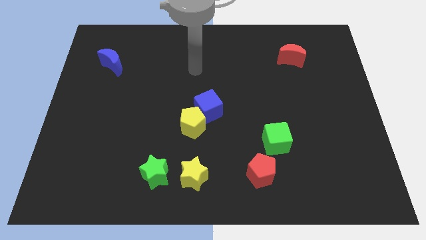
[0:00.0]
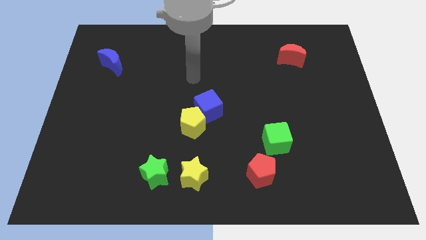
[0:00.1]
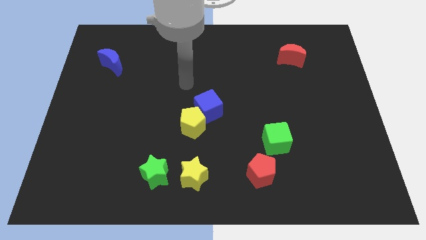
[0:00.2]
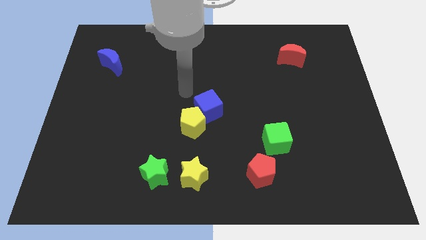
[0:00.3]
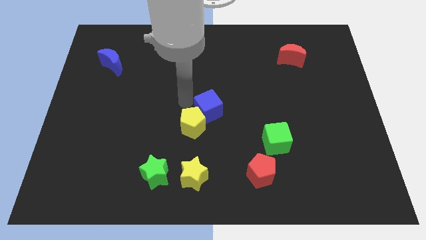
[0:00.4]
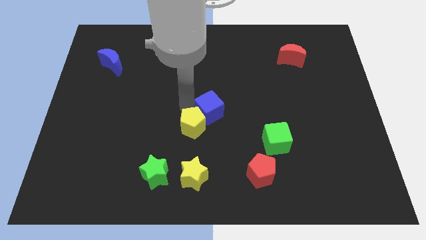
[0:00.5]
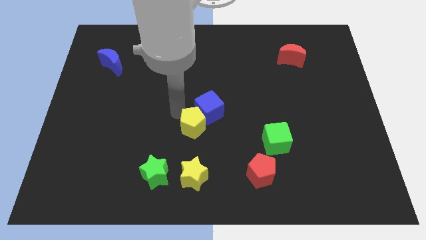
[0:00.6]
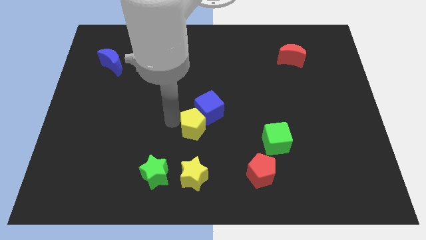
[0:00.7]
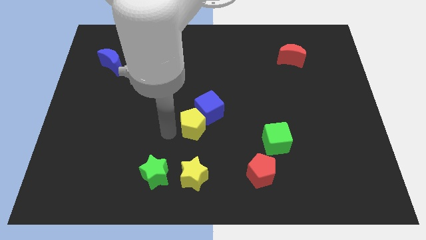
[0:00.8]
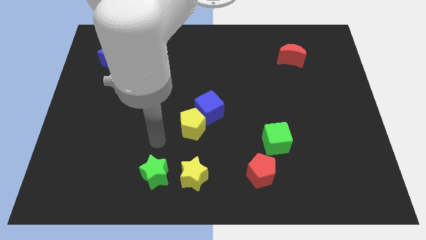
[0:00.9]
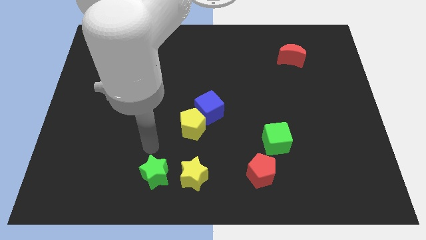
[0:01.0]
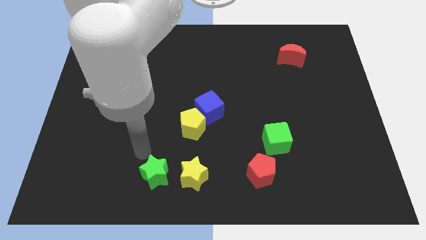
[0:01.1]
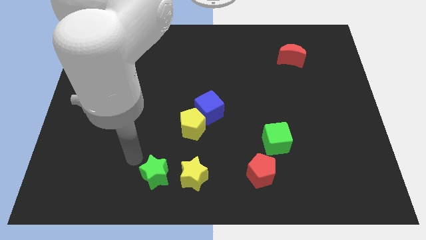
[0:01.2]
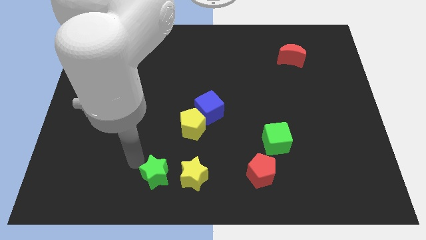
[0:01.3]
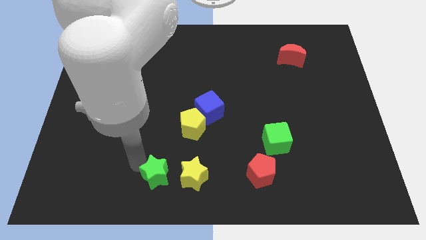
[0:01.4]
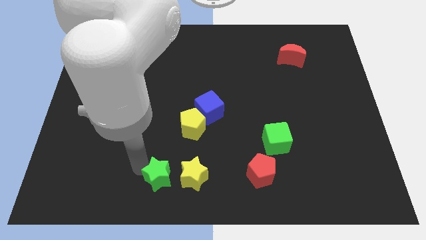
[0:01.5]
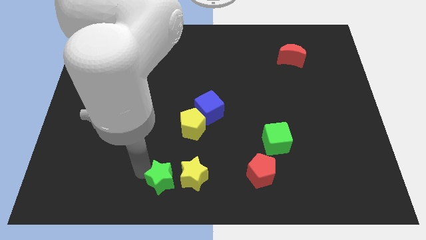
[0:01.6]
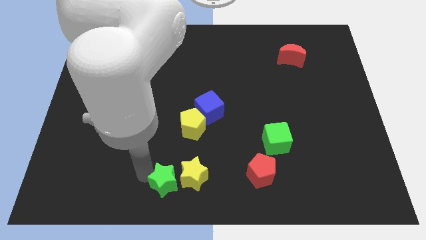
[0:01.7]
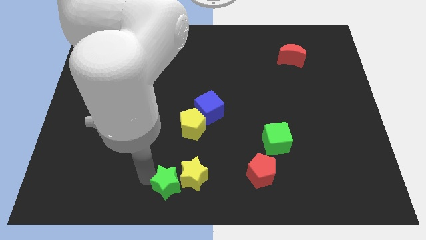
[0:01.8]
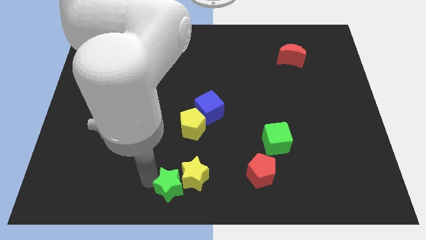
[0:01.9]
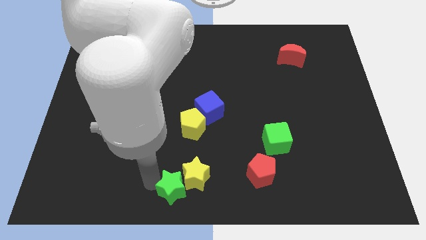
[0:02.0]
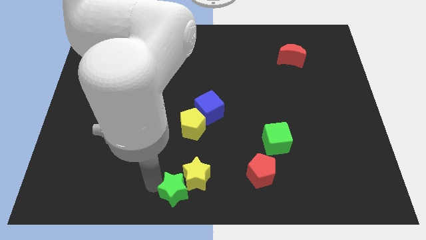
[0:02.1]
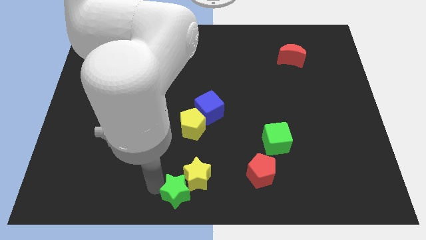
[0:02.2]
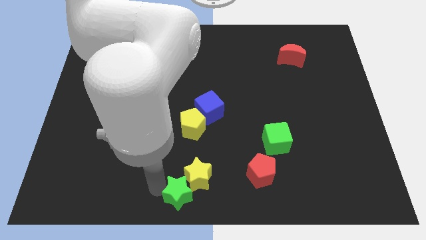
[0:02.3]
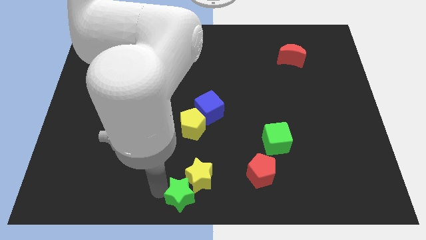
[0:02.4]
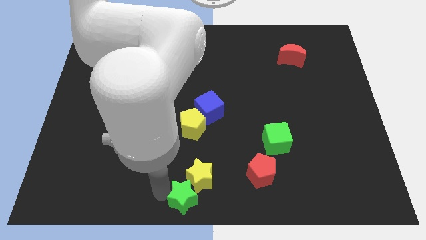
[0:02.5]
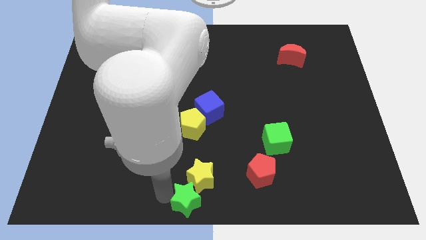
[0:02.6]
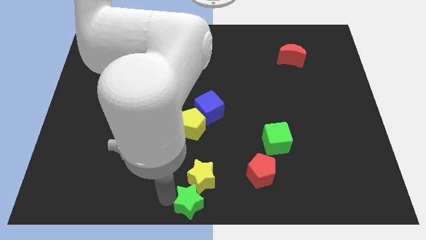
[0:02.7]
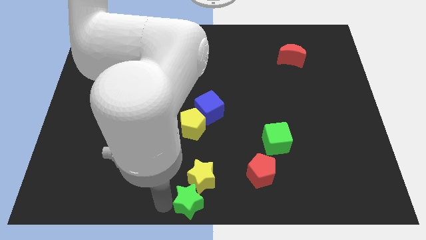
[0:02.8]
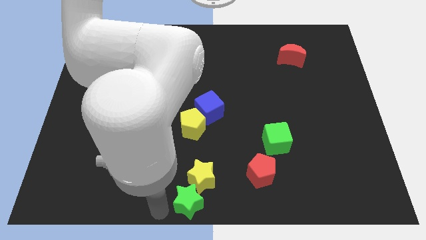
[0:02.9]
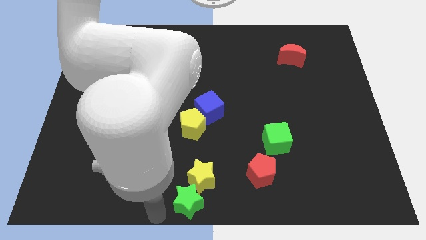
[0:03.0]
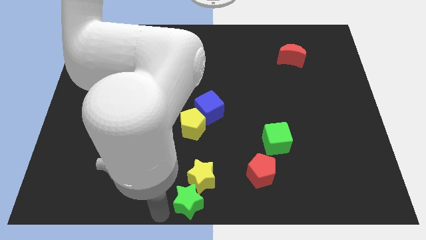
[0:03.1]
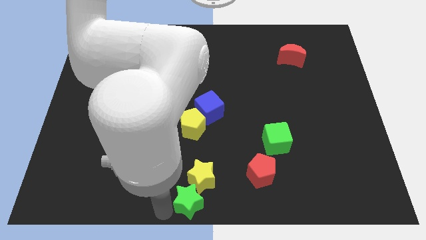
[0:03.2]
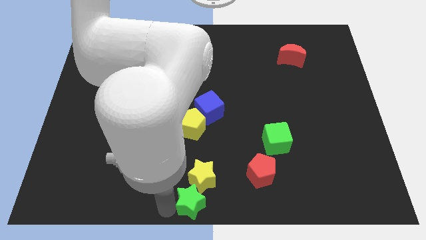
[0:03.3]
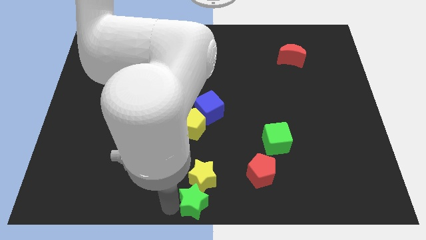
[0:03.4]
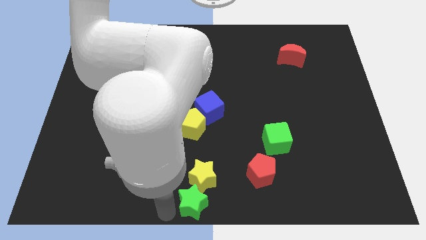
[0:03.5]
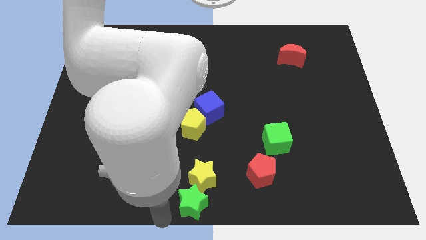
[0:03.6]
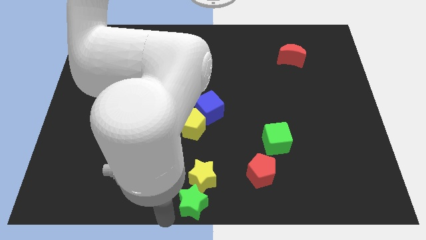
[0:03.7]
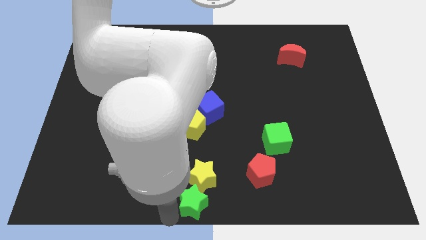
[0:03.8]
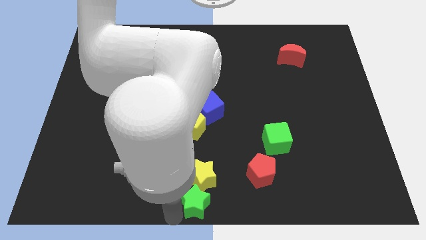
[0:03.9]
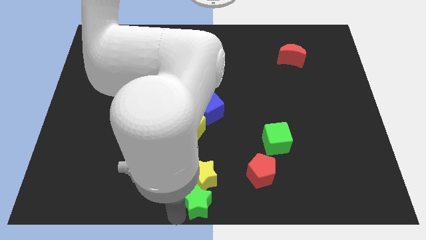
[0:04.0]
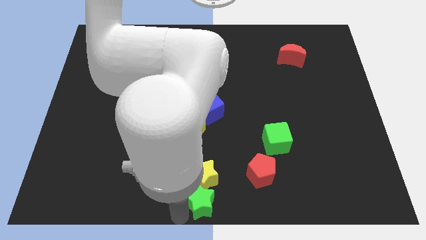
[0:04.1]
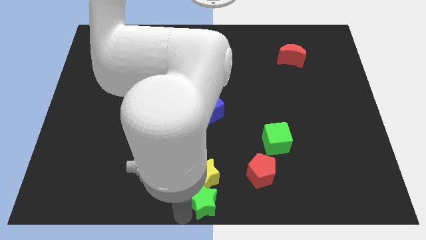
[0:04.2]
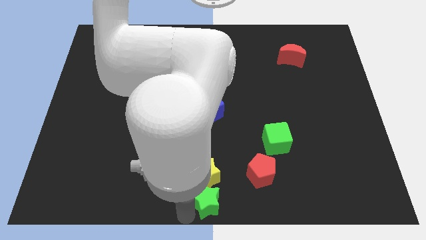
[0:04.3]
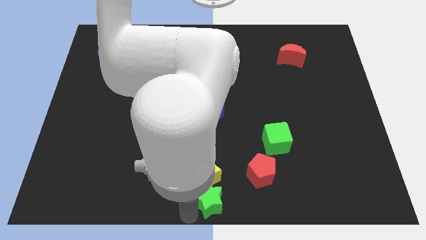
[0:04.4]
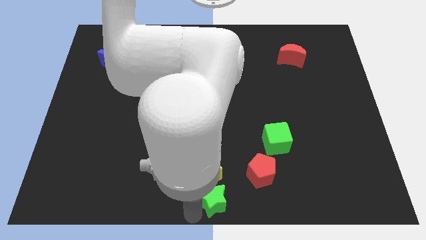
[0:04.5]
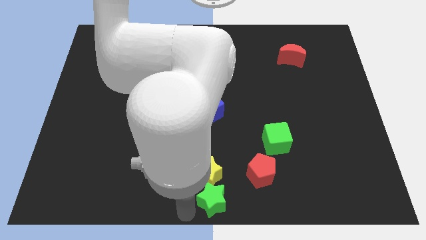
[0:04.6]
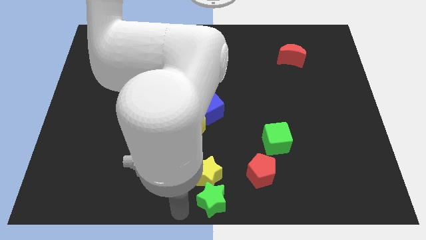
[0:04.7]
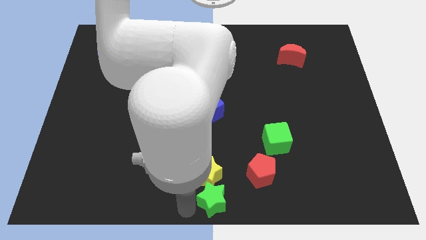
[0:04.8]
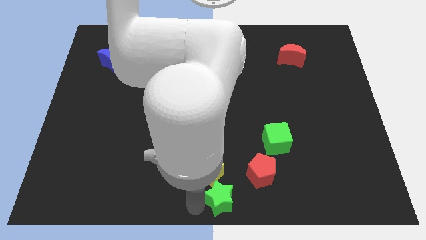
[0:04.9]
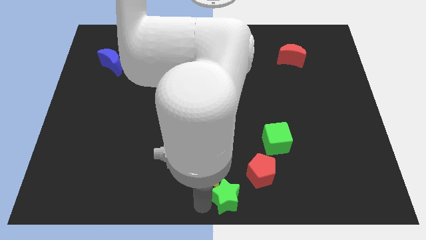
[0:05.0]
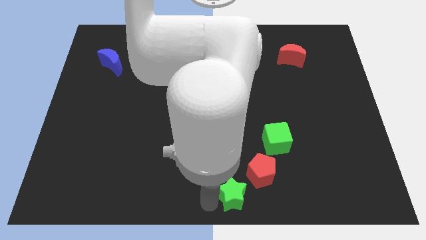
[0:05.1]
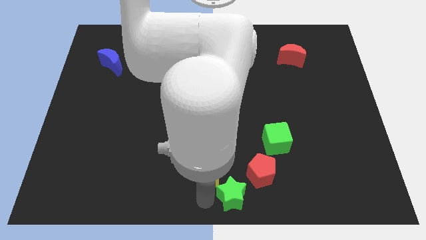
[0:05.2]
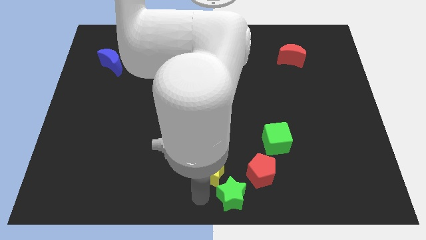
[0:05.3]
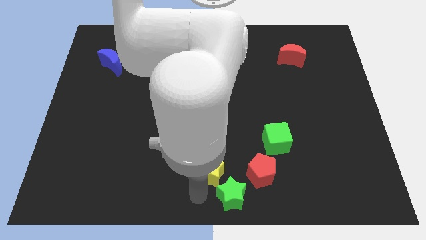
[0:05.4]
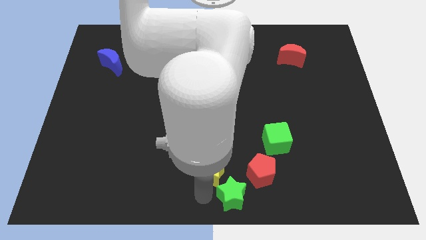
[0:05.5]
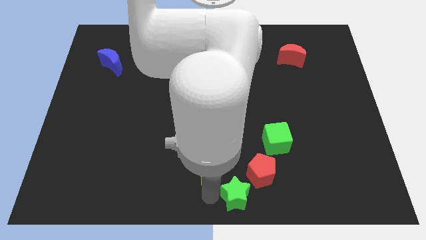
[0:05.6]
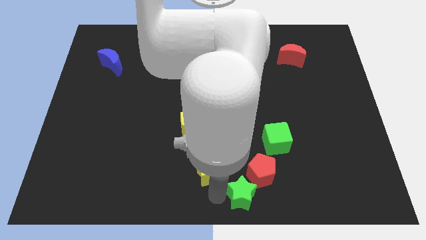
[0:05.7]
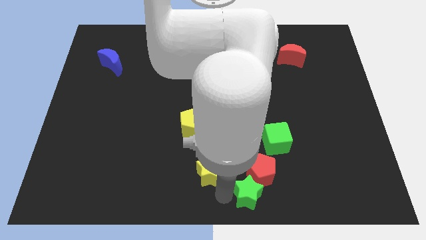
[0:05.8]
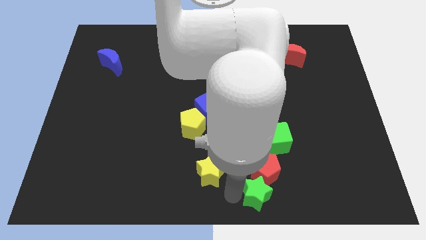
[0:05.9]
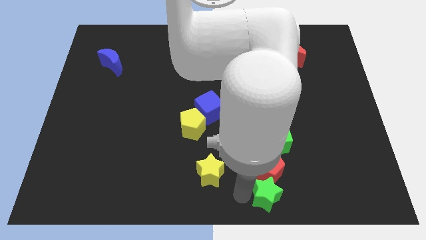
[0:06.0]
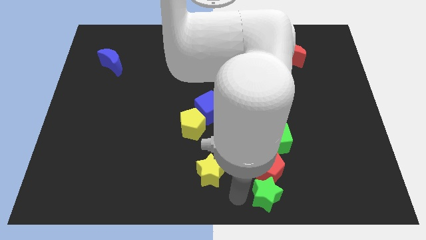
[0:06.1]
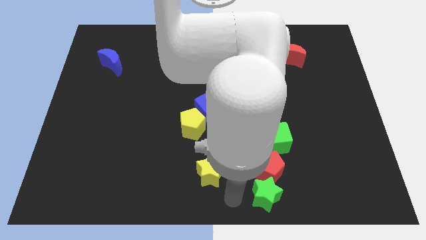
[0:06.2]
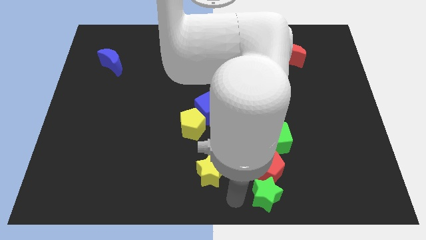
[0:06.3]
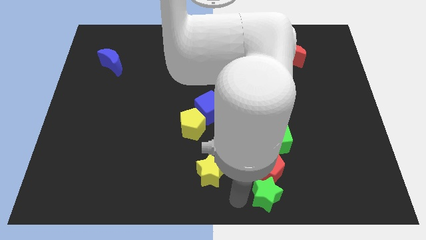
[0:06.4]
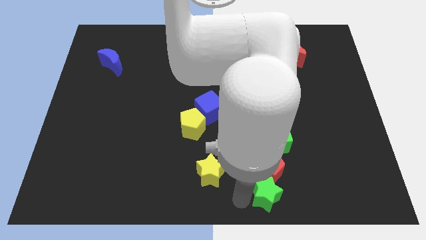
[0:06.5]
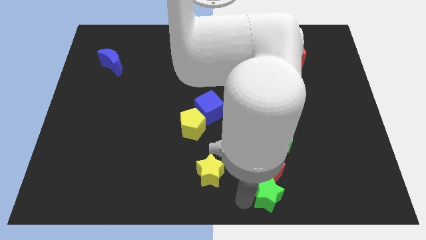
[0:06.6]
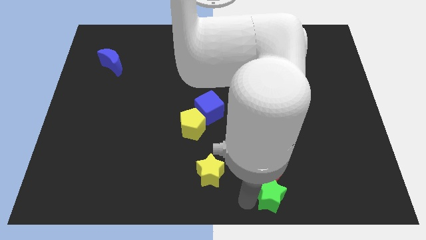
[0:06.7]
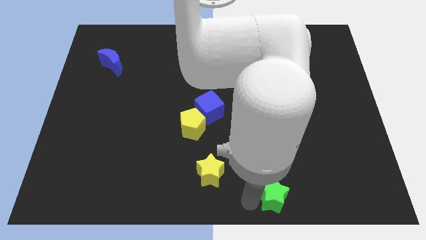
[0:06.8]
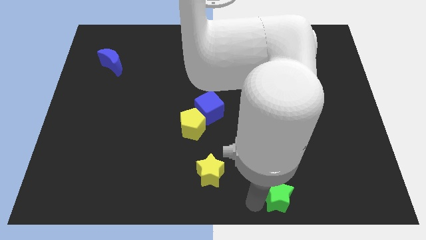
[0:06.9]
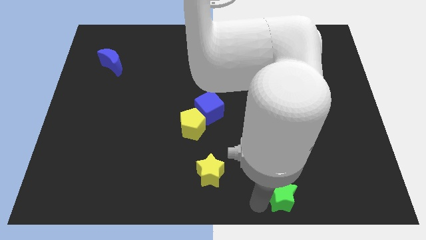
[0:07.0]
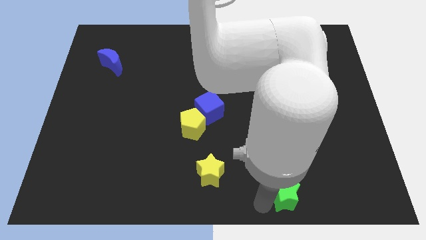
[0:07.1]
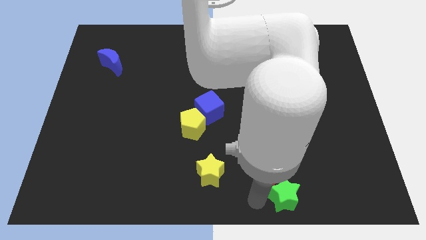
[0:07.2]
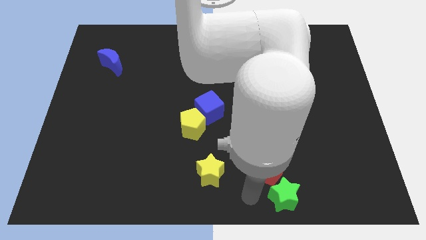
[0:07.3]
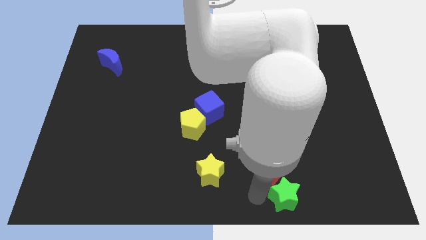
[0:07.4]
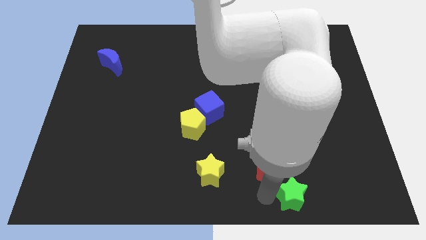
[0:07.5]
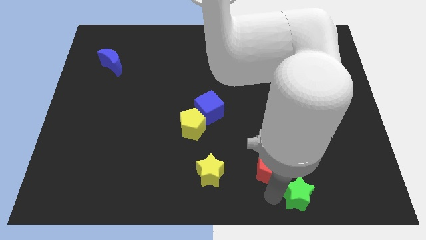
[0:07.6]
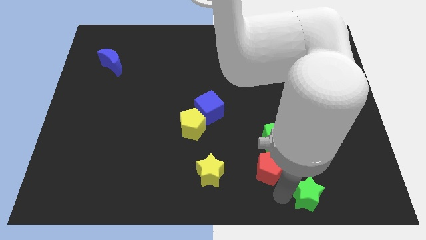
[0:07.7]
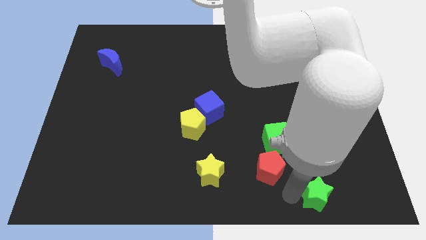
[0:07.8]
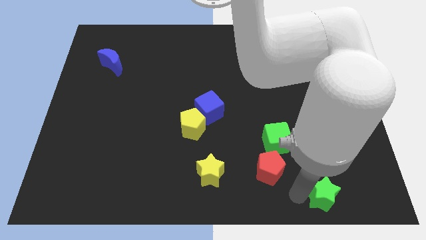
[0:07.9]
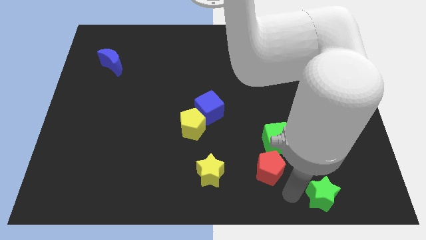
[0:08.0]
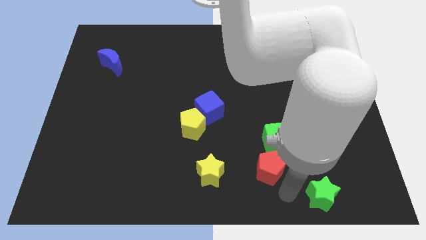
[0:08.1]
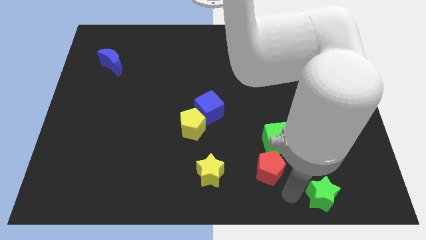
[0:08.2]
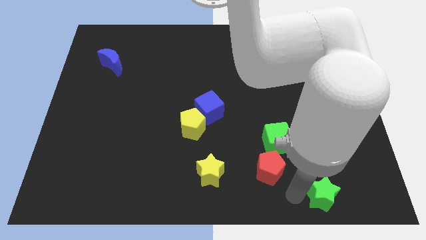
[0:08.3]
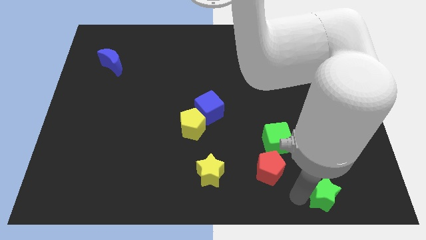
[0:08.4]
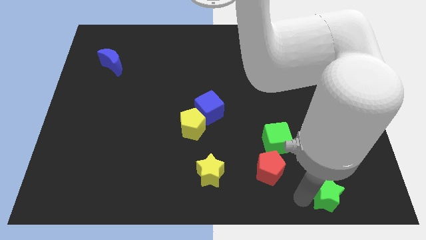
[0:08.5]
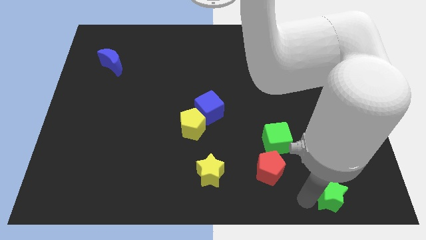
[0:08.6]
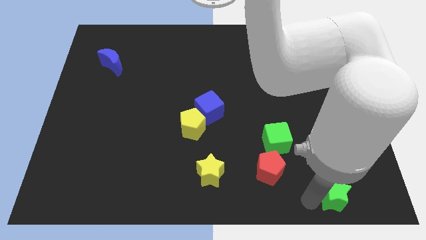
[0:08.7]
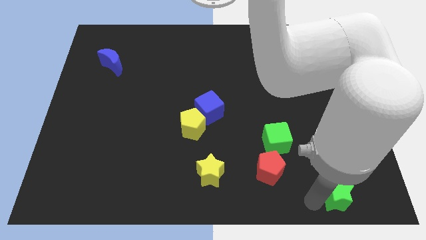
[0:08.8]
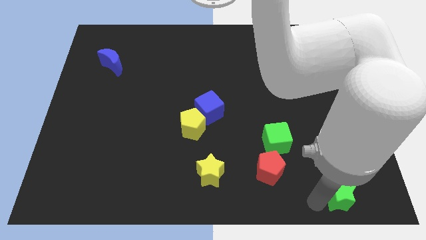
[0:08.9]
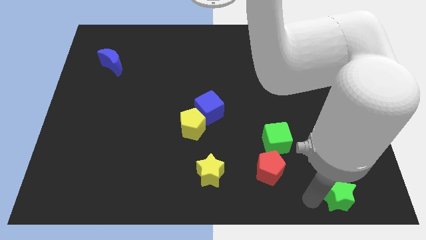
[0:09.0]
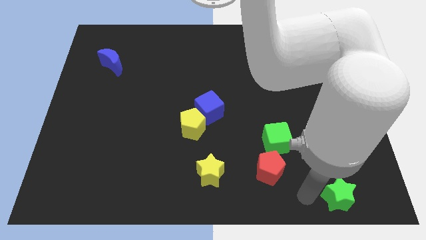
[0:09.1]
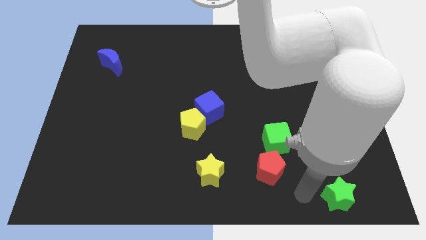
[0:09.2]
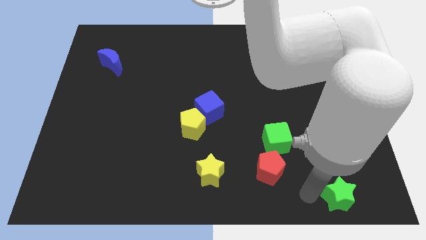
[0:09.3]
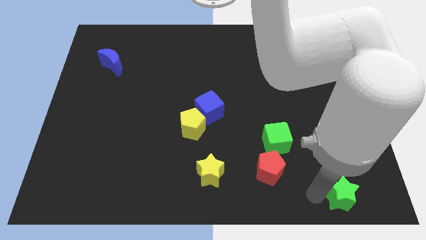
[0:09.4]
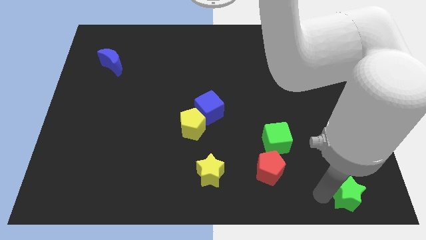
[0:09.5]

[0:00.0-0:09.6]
push the green star to the bottom right corner
